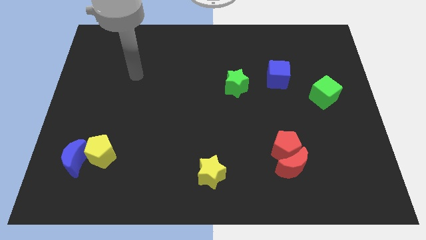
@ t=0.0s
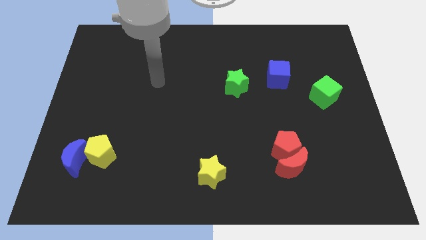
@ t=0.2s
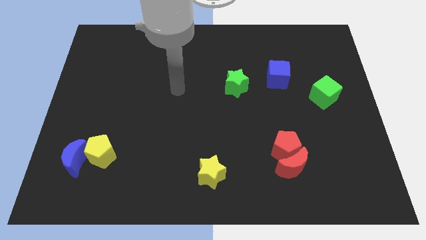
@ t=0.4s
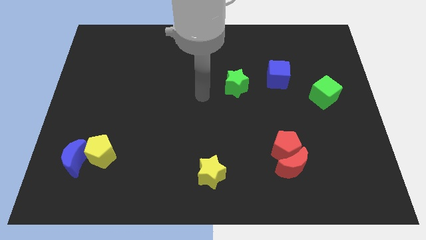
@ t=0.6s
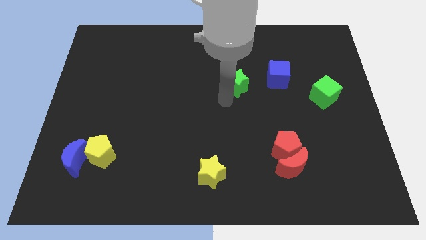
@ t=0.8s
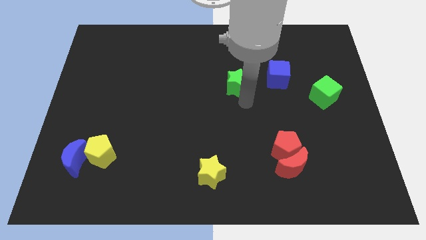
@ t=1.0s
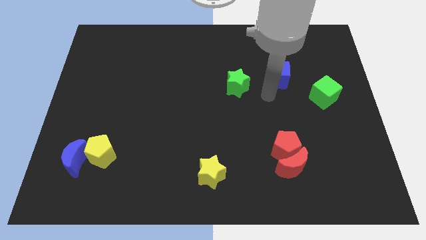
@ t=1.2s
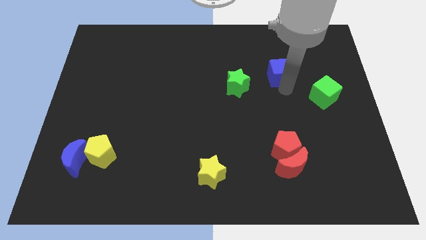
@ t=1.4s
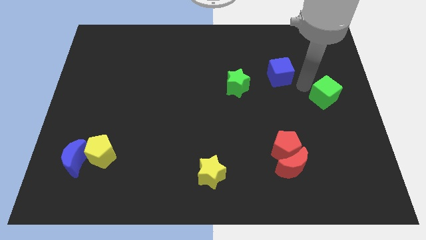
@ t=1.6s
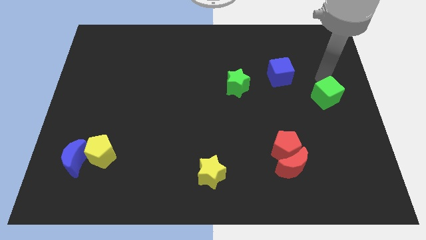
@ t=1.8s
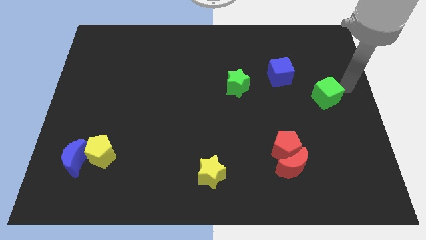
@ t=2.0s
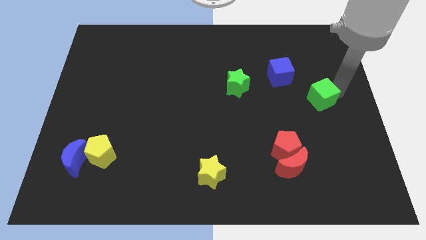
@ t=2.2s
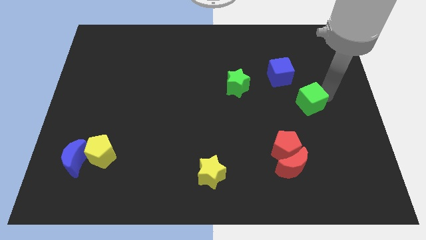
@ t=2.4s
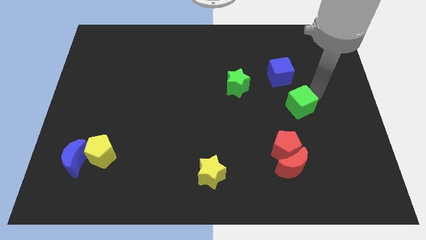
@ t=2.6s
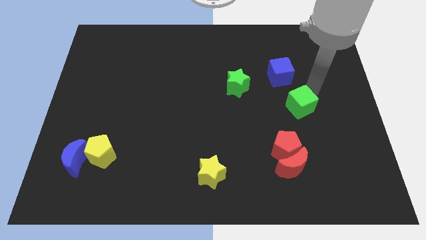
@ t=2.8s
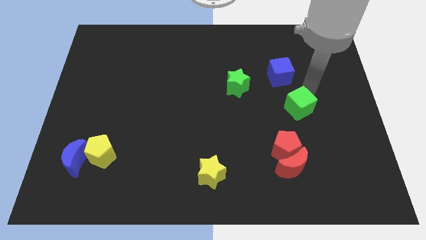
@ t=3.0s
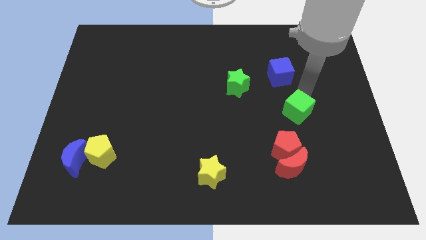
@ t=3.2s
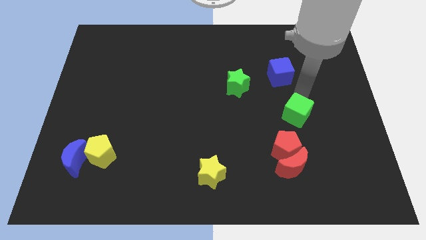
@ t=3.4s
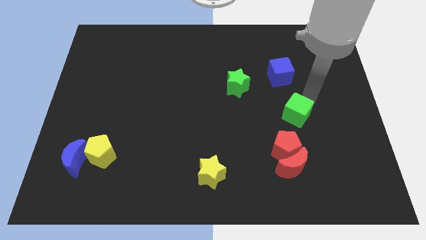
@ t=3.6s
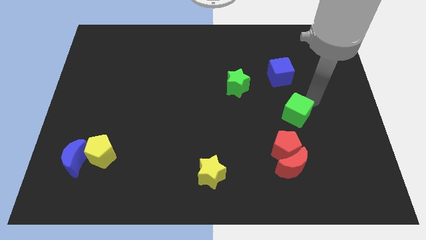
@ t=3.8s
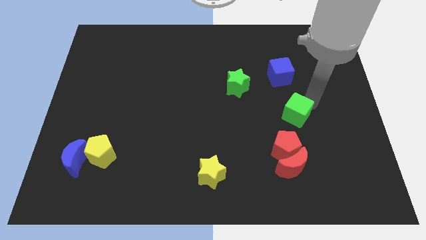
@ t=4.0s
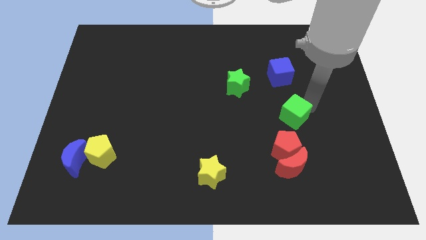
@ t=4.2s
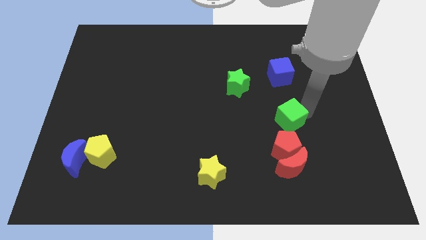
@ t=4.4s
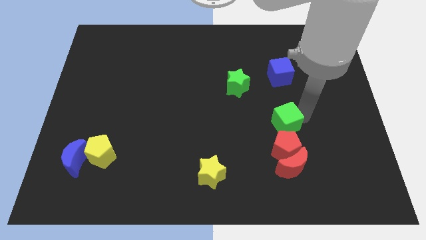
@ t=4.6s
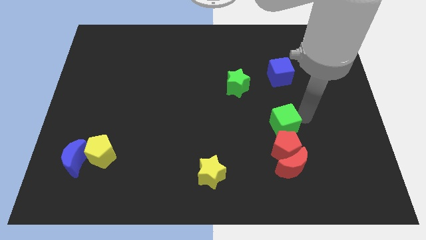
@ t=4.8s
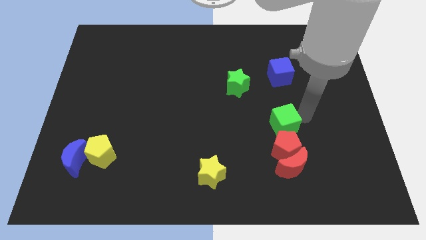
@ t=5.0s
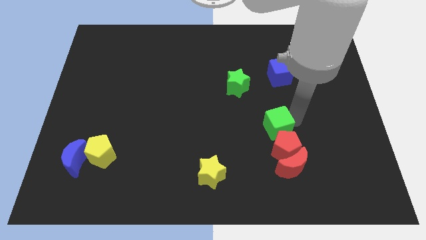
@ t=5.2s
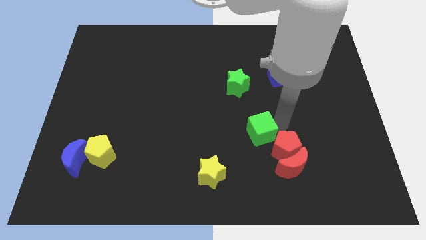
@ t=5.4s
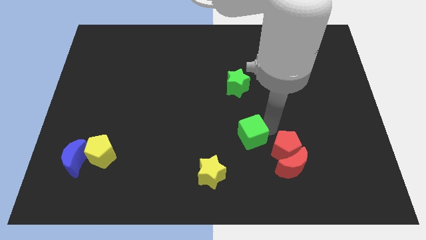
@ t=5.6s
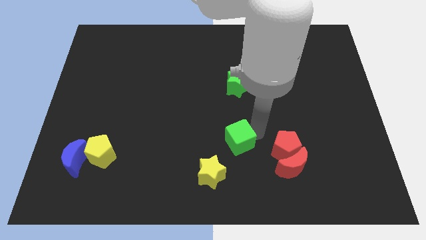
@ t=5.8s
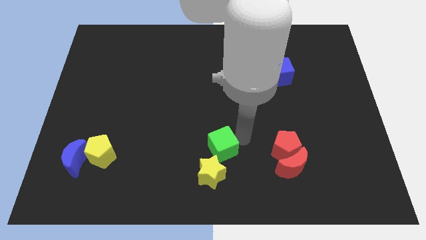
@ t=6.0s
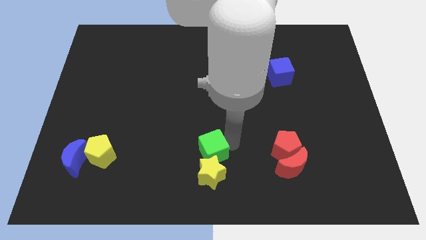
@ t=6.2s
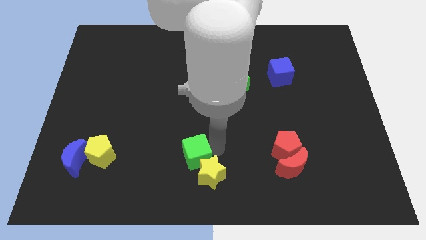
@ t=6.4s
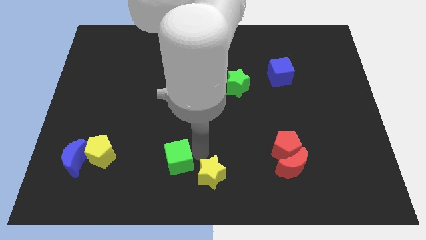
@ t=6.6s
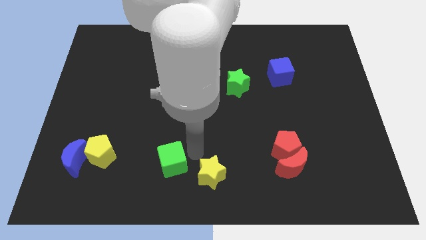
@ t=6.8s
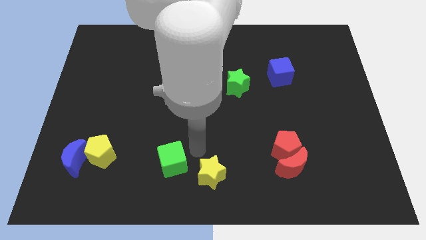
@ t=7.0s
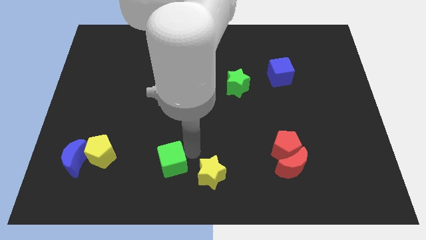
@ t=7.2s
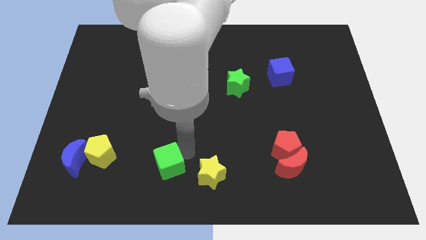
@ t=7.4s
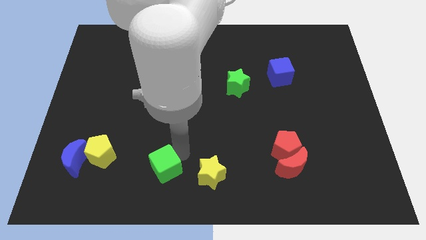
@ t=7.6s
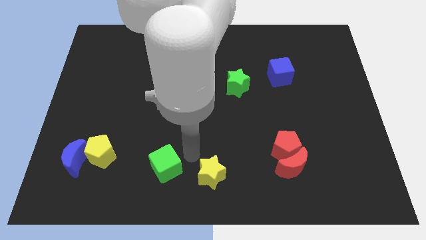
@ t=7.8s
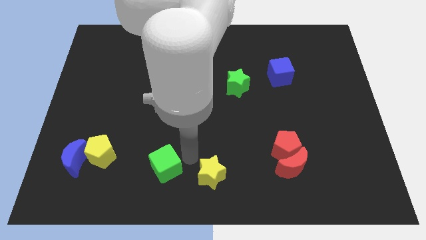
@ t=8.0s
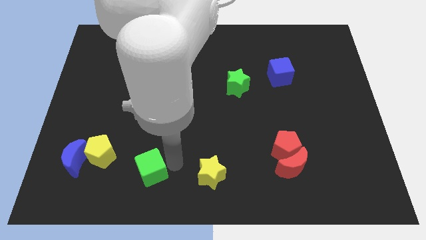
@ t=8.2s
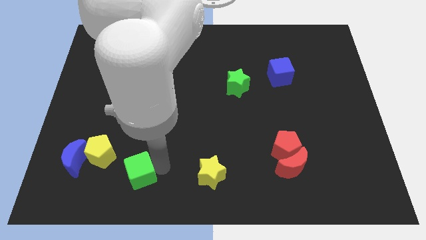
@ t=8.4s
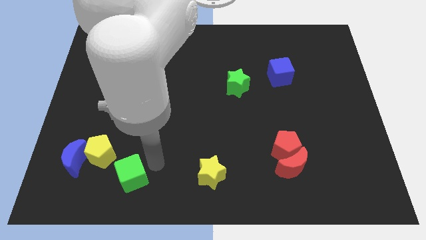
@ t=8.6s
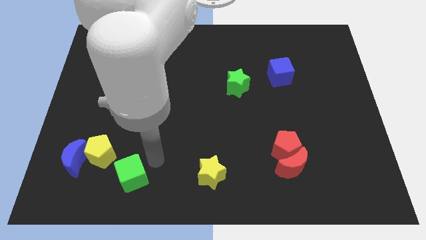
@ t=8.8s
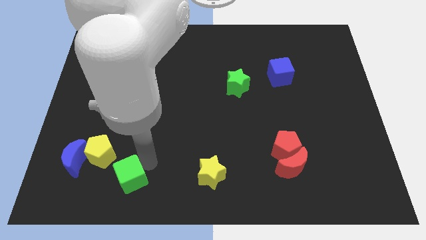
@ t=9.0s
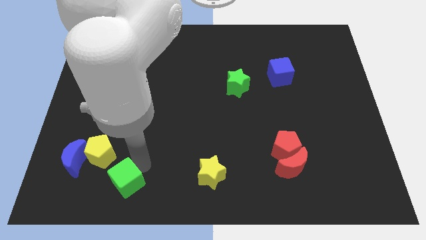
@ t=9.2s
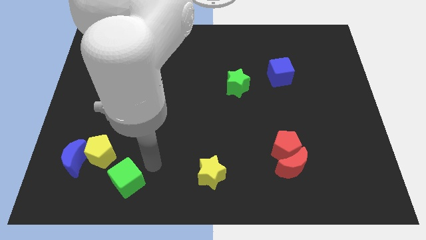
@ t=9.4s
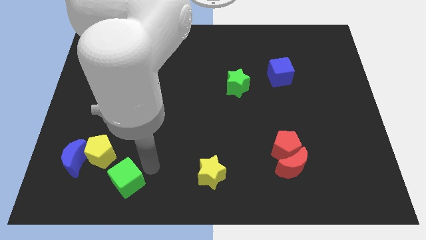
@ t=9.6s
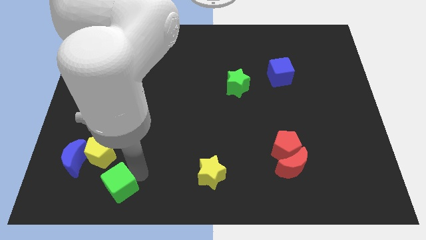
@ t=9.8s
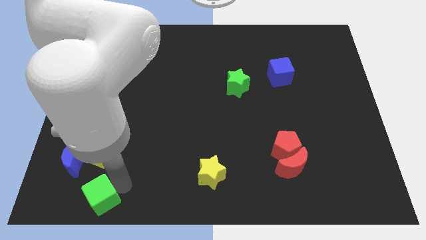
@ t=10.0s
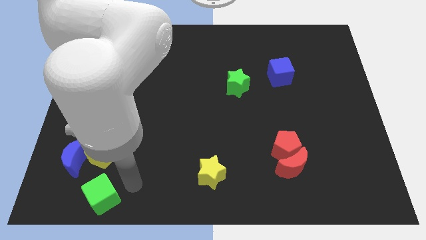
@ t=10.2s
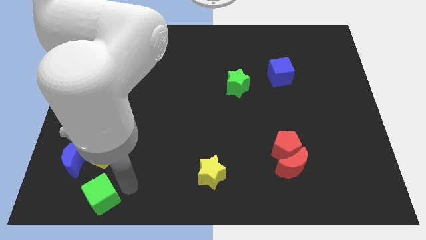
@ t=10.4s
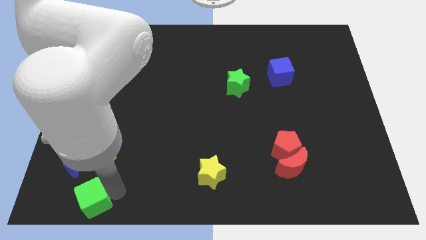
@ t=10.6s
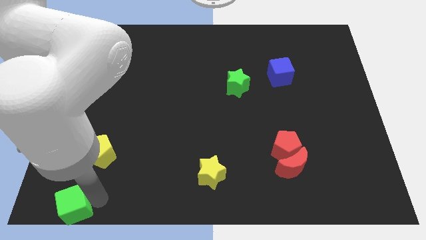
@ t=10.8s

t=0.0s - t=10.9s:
move the green cube to the bottom left corner
